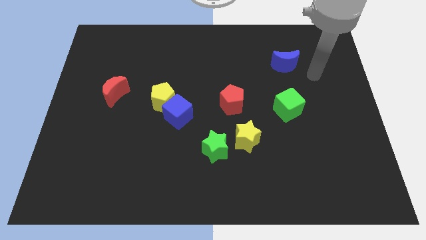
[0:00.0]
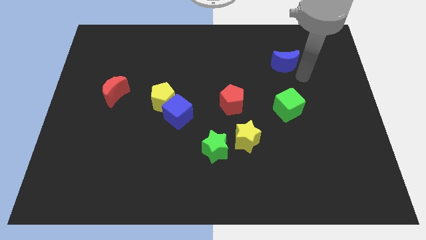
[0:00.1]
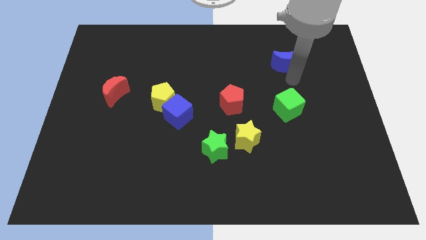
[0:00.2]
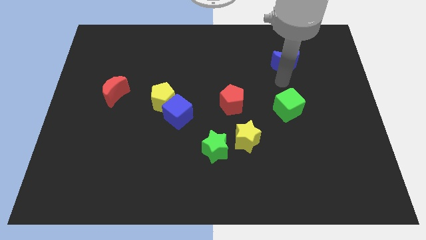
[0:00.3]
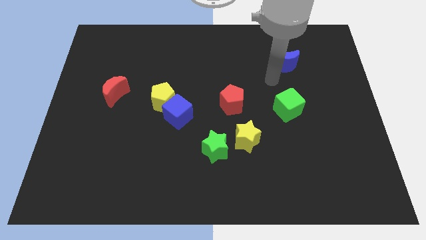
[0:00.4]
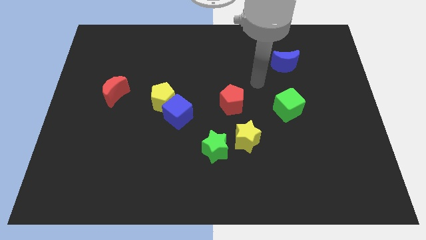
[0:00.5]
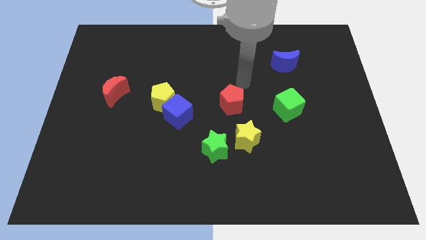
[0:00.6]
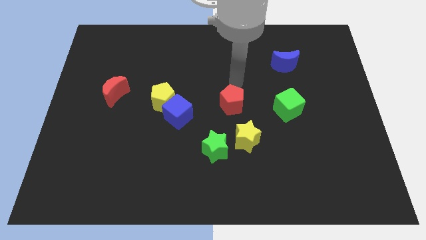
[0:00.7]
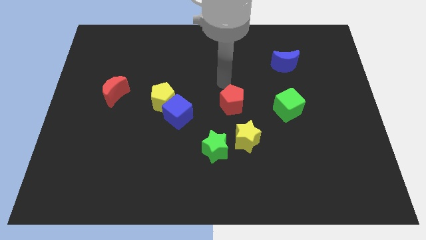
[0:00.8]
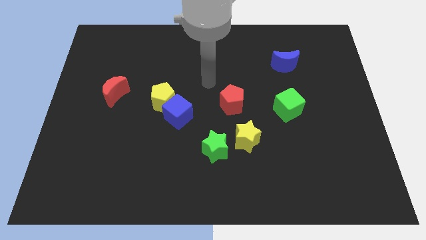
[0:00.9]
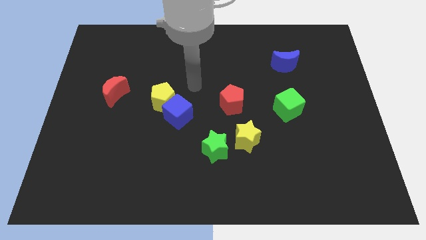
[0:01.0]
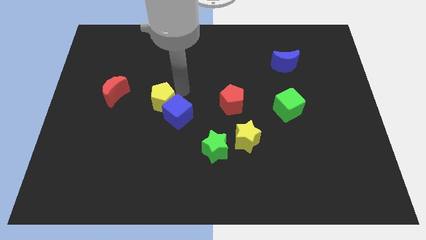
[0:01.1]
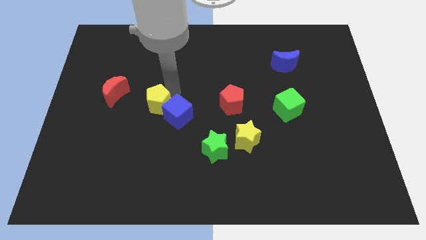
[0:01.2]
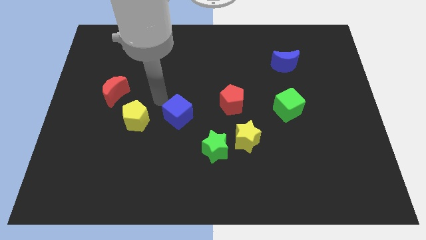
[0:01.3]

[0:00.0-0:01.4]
move the blue cube away from the yellow pentagon

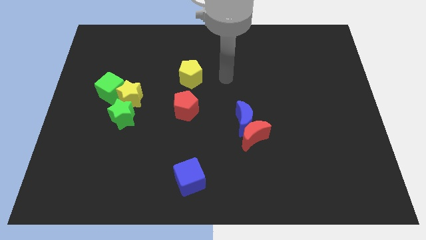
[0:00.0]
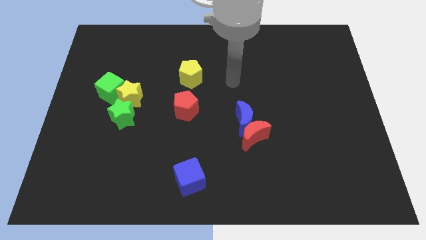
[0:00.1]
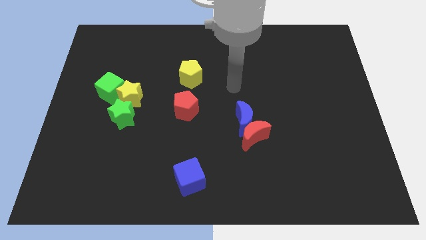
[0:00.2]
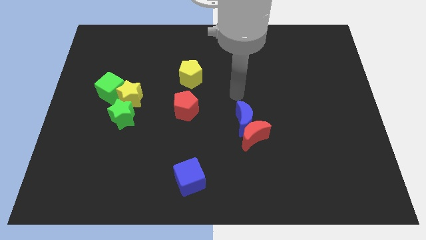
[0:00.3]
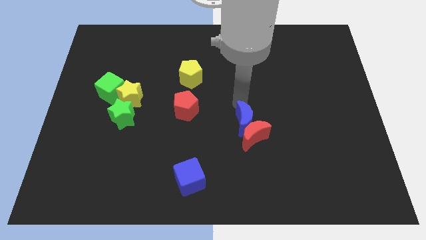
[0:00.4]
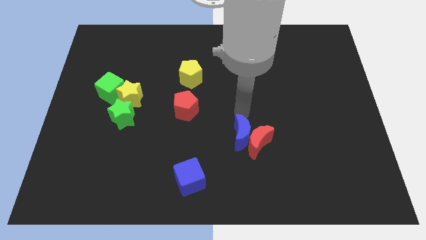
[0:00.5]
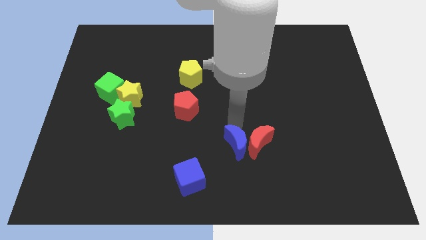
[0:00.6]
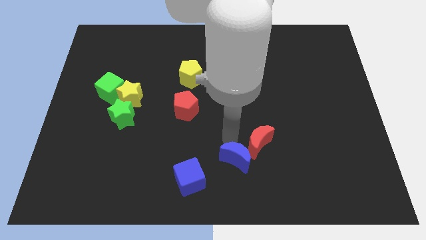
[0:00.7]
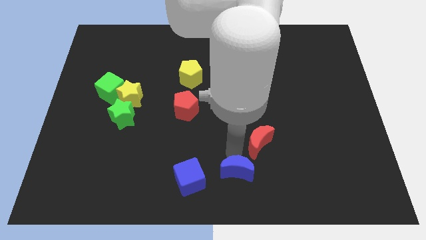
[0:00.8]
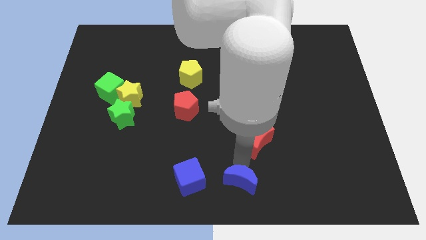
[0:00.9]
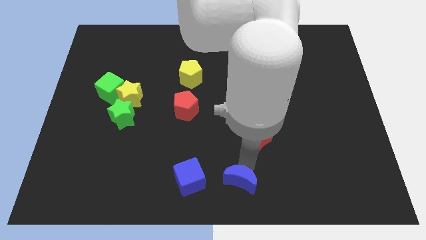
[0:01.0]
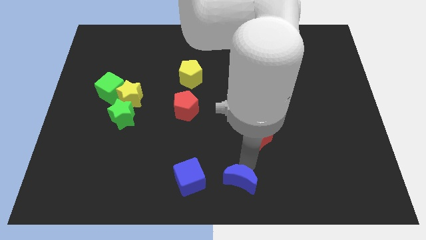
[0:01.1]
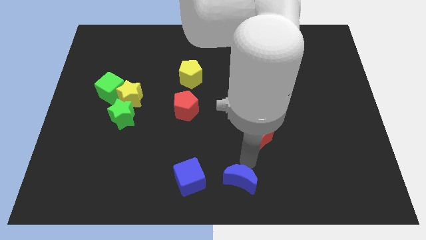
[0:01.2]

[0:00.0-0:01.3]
separate the red moon from the blue moon

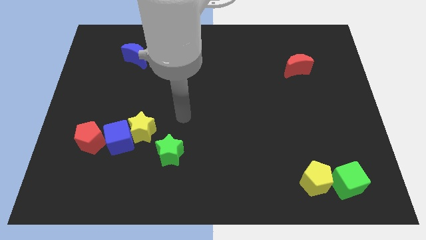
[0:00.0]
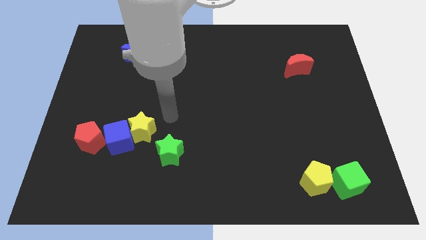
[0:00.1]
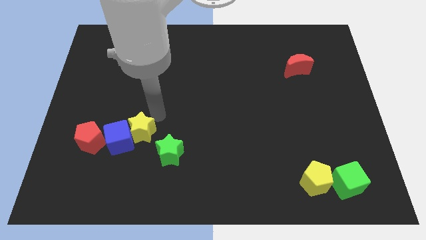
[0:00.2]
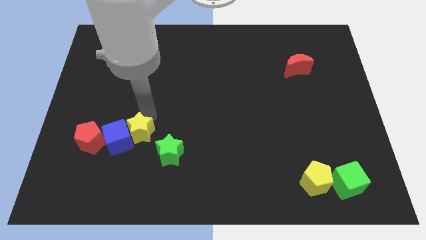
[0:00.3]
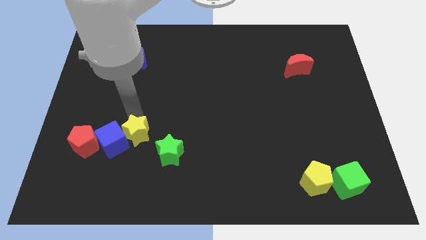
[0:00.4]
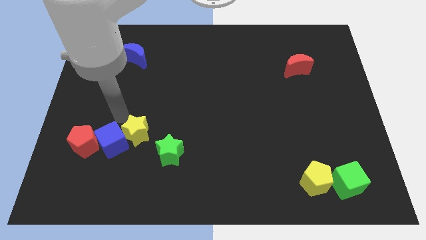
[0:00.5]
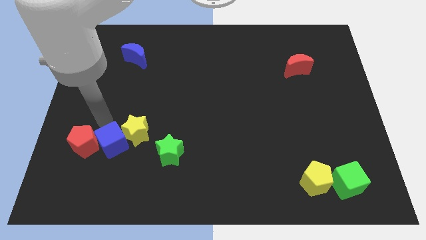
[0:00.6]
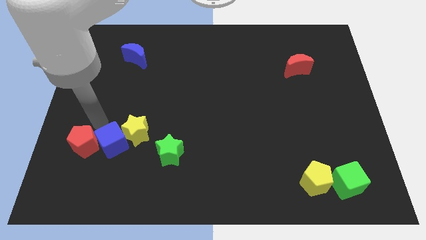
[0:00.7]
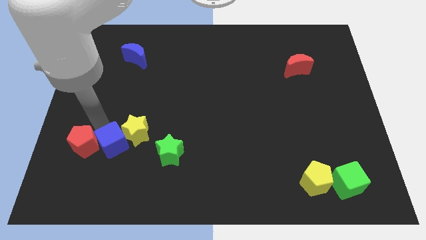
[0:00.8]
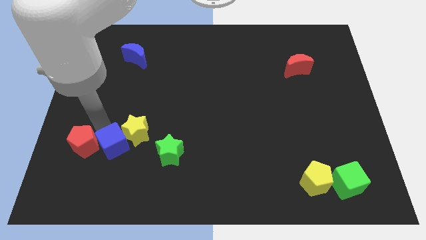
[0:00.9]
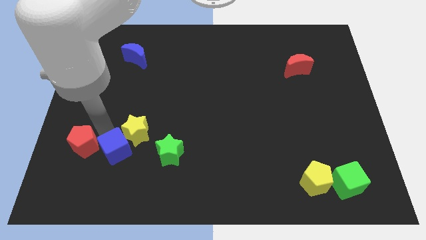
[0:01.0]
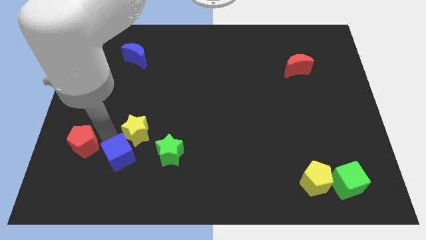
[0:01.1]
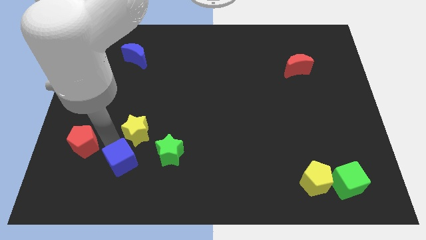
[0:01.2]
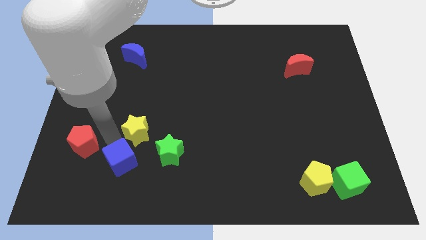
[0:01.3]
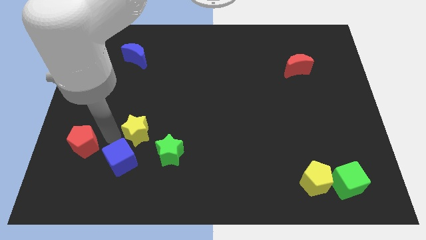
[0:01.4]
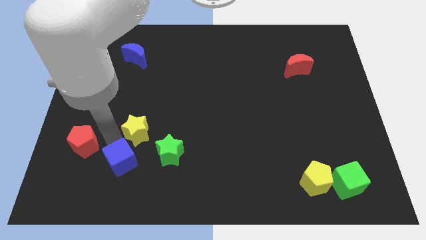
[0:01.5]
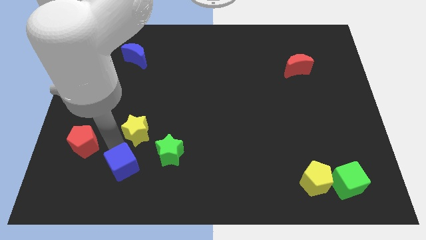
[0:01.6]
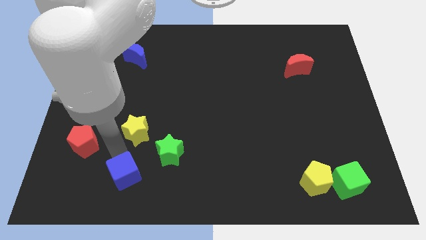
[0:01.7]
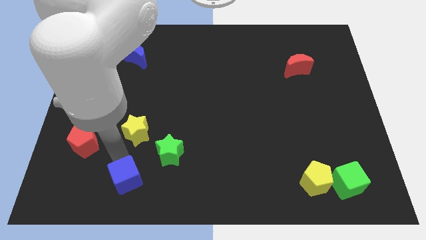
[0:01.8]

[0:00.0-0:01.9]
move the blue cube away from the yellow star and red pentagon

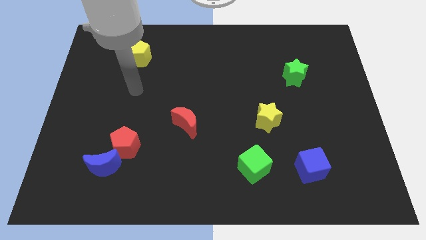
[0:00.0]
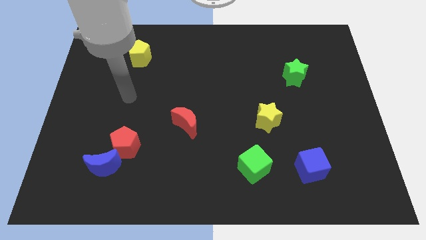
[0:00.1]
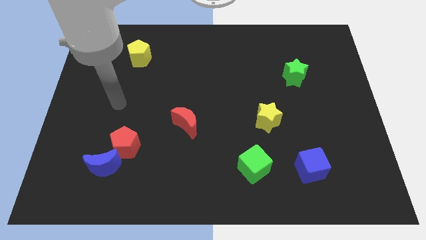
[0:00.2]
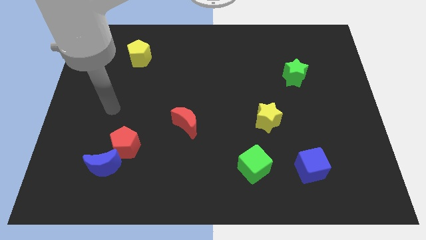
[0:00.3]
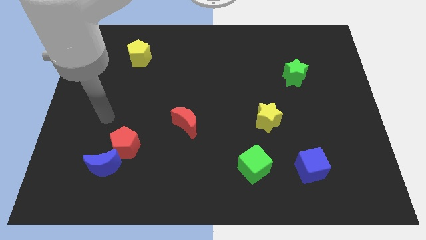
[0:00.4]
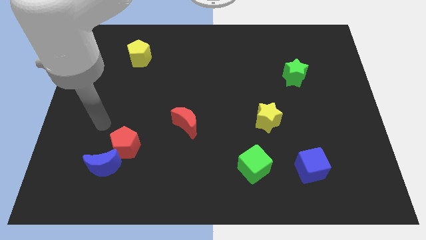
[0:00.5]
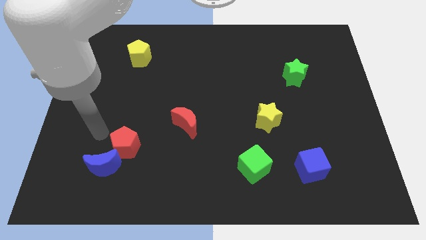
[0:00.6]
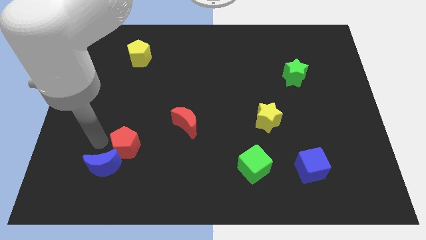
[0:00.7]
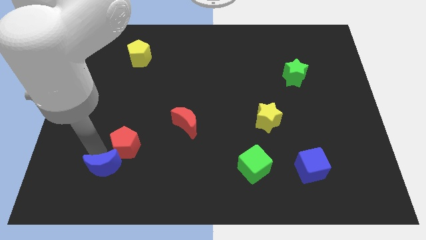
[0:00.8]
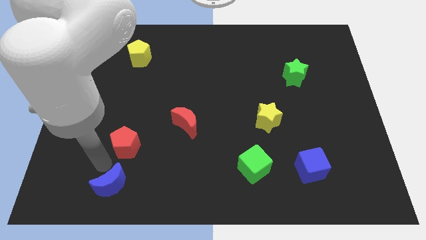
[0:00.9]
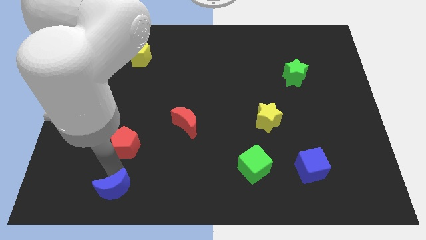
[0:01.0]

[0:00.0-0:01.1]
move the red pentagon away from the blue moon

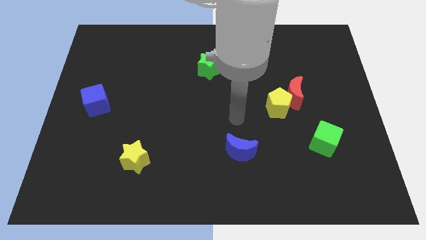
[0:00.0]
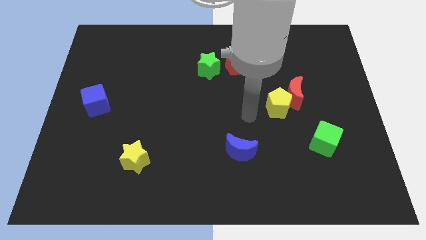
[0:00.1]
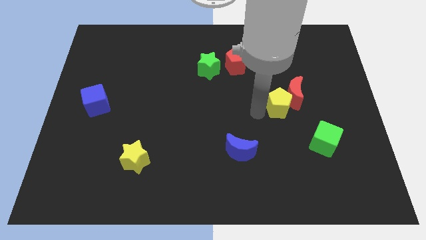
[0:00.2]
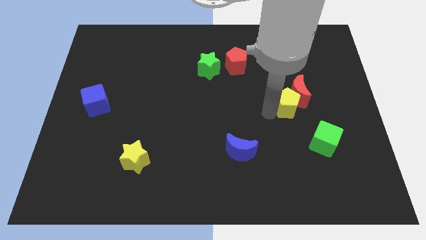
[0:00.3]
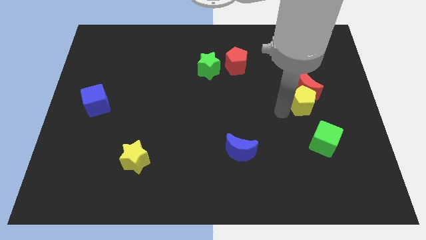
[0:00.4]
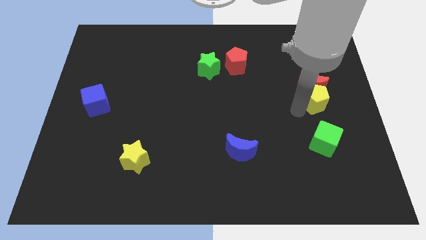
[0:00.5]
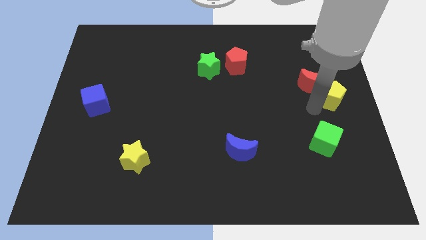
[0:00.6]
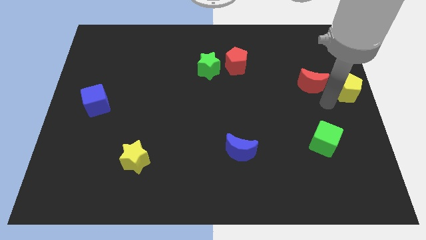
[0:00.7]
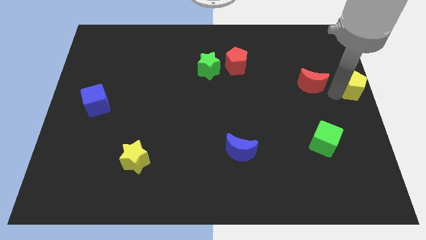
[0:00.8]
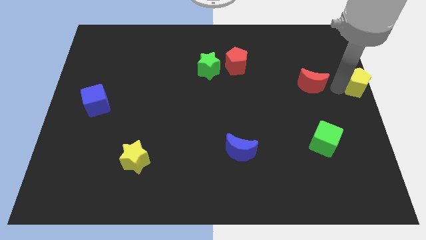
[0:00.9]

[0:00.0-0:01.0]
pull the red moon apart from the yellow pentagon

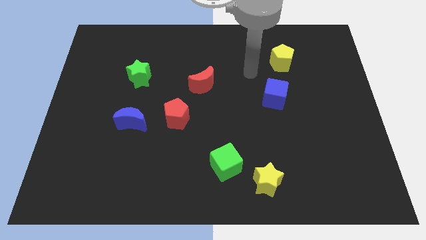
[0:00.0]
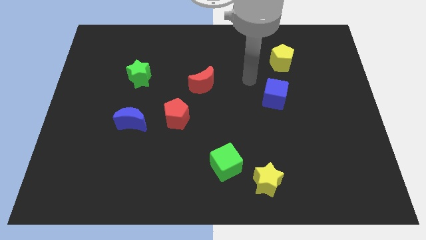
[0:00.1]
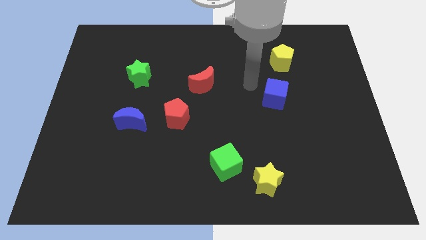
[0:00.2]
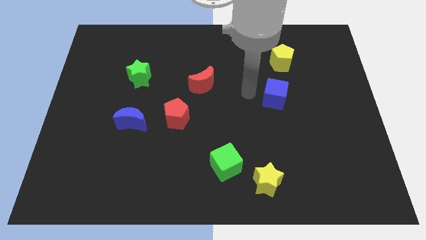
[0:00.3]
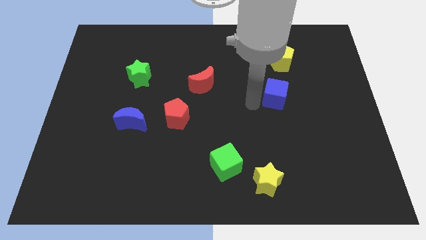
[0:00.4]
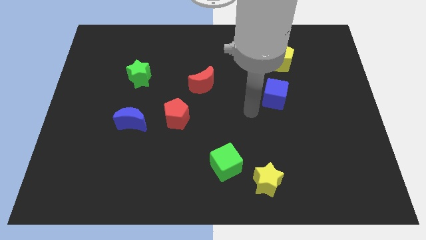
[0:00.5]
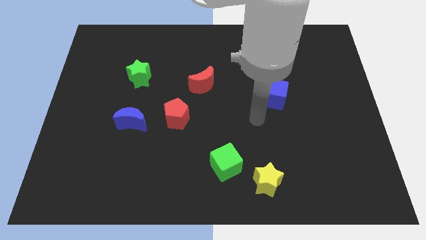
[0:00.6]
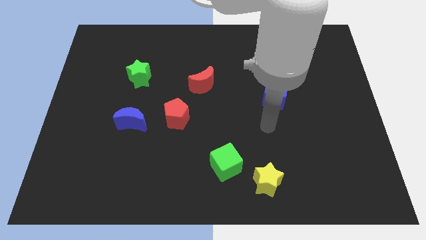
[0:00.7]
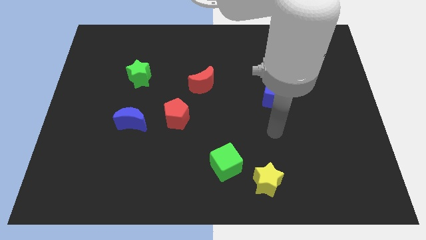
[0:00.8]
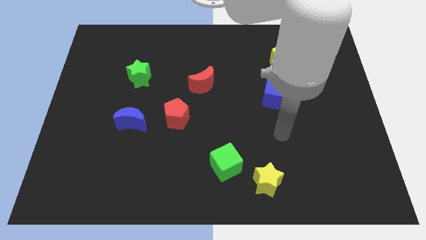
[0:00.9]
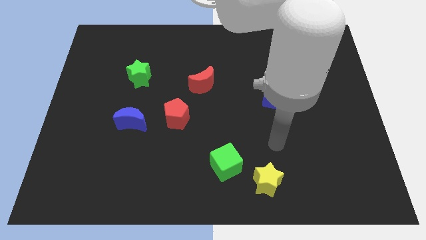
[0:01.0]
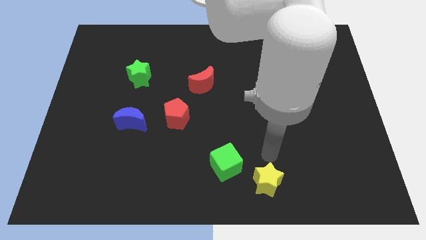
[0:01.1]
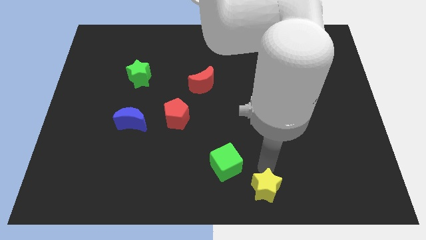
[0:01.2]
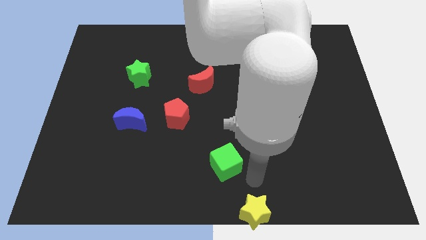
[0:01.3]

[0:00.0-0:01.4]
pull the green cube apart from the yellow star

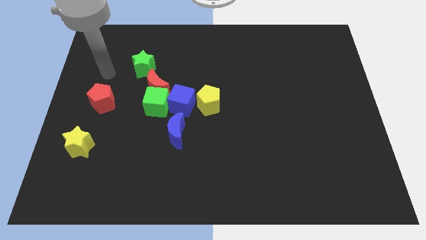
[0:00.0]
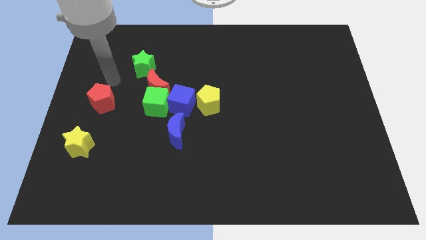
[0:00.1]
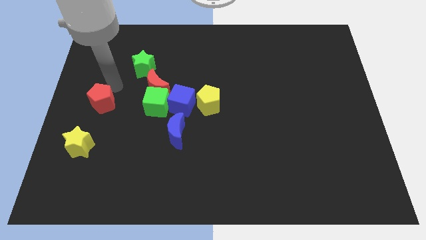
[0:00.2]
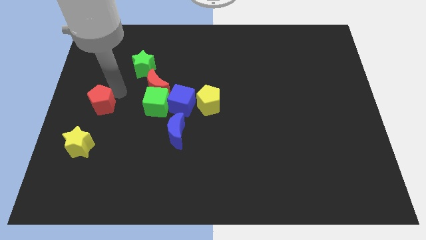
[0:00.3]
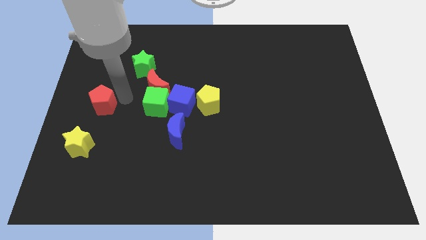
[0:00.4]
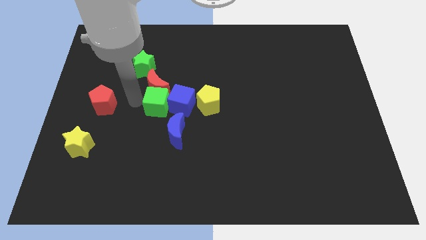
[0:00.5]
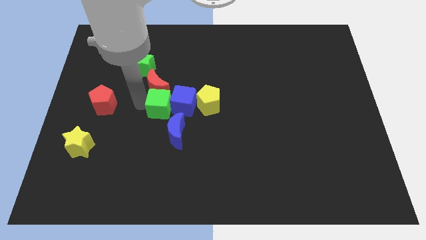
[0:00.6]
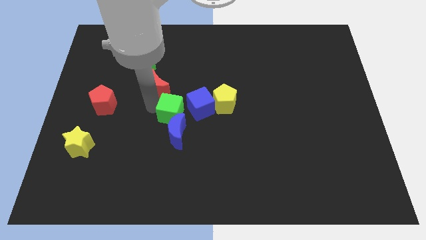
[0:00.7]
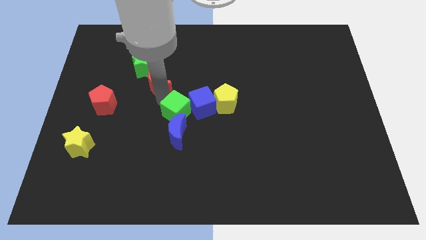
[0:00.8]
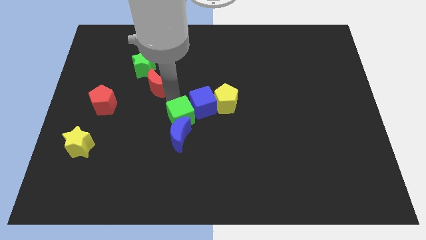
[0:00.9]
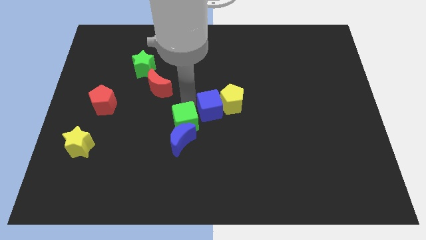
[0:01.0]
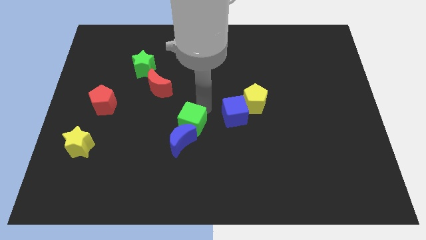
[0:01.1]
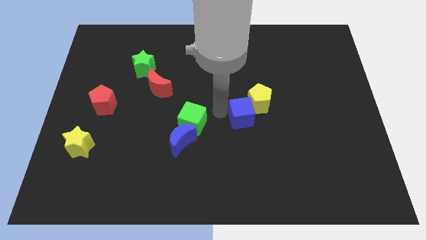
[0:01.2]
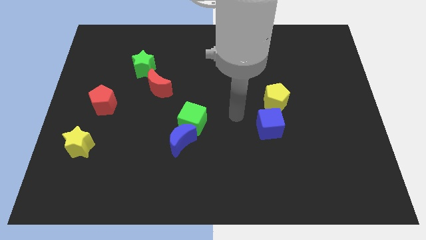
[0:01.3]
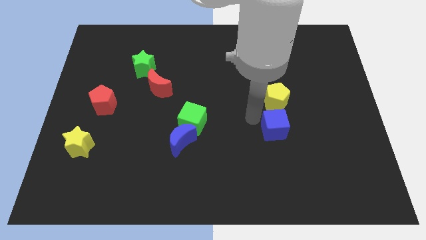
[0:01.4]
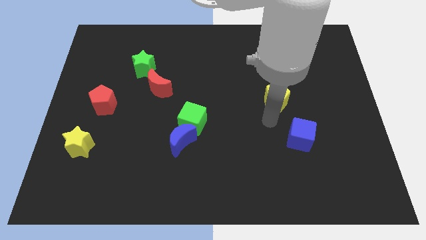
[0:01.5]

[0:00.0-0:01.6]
move the yellow pentagon away from the blue cube
